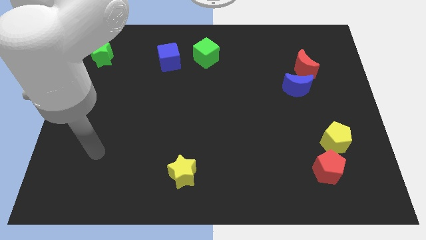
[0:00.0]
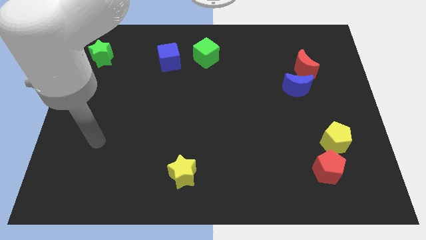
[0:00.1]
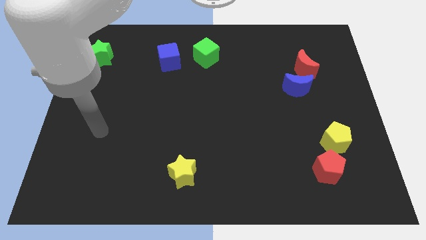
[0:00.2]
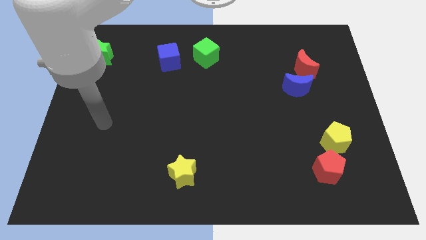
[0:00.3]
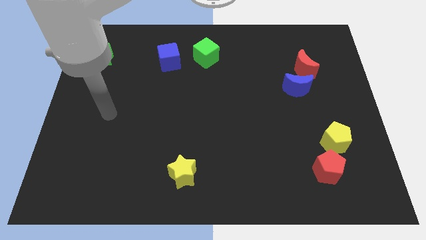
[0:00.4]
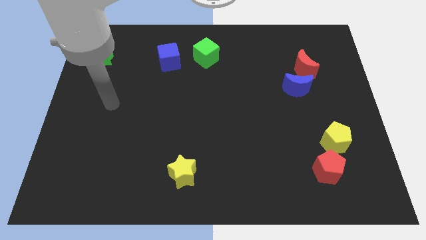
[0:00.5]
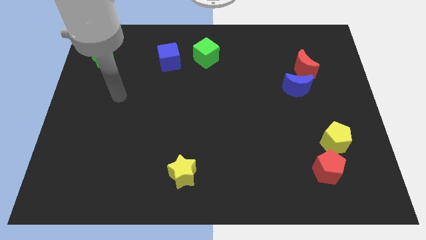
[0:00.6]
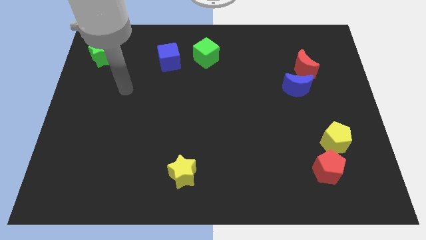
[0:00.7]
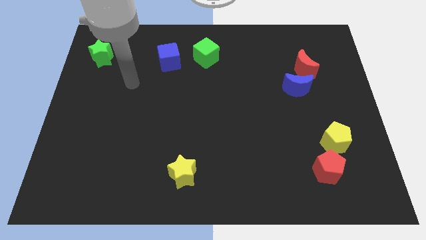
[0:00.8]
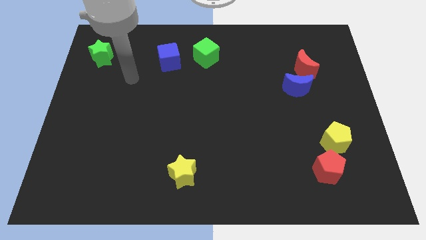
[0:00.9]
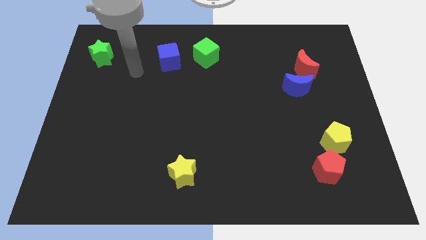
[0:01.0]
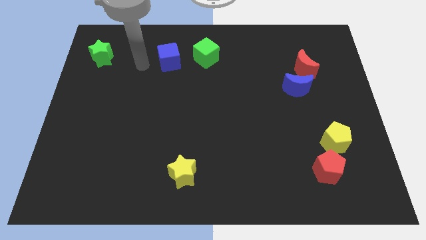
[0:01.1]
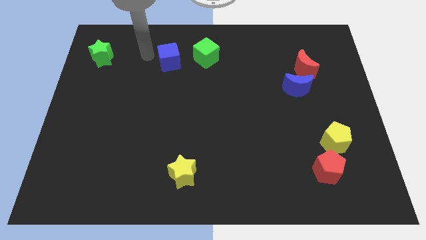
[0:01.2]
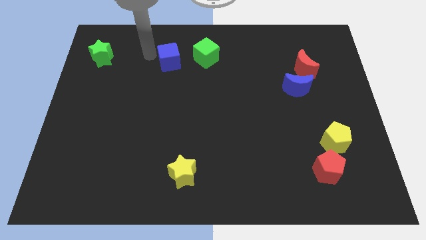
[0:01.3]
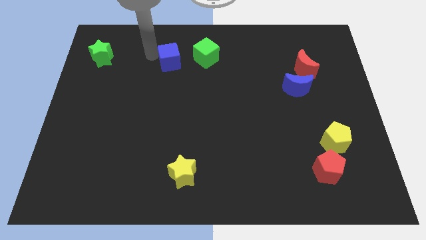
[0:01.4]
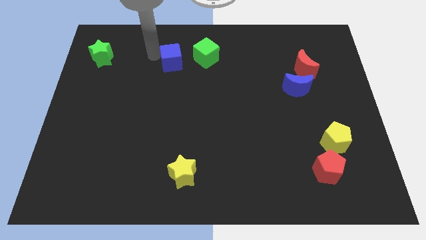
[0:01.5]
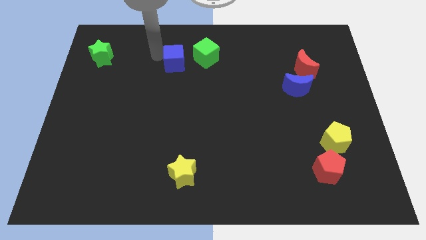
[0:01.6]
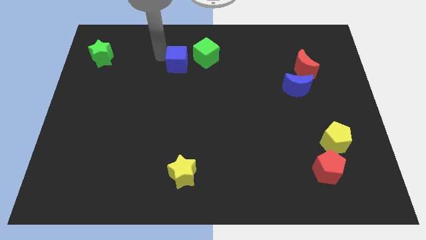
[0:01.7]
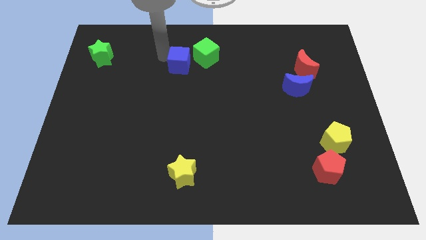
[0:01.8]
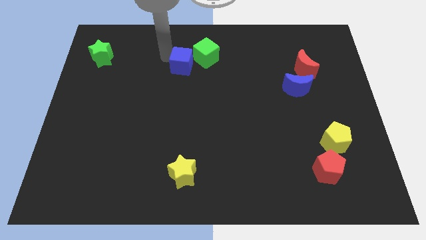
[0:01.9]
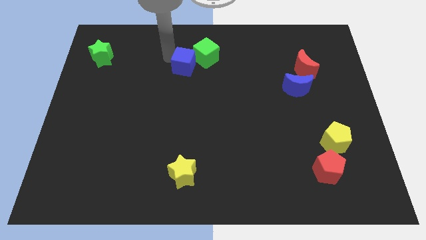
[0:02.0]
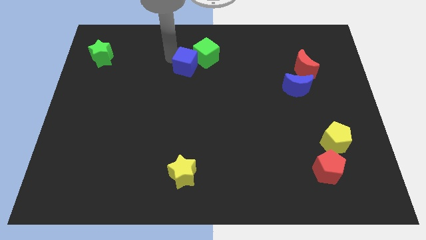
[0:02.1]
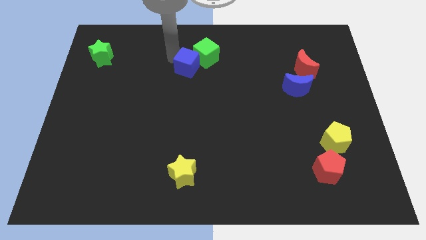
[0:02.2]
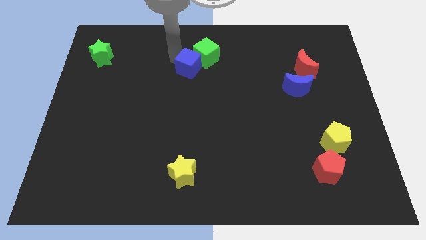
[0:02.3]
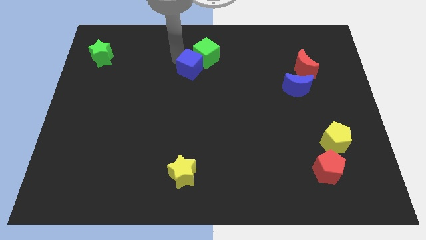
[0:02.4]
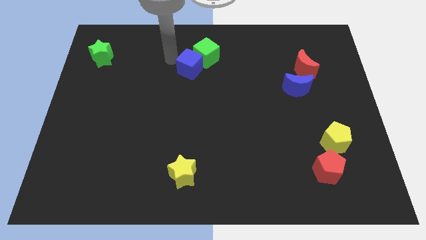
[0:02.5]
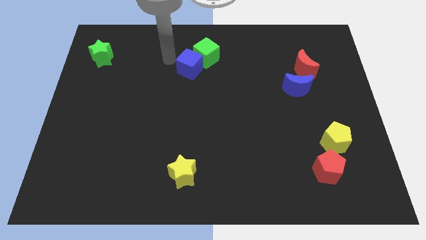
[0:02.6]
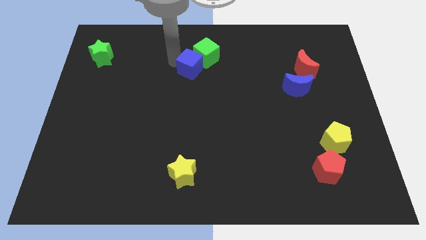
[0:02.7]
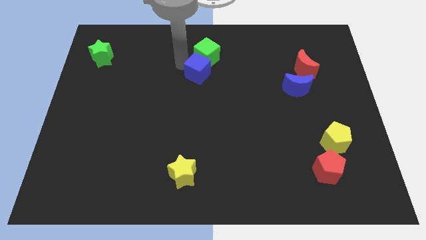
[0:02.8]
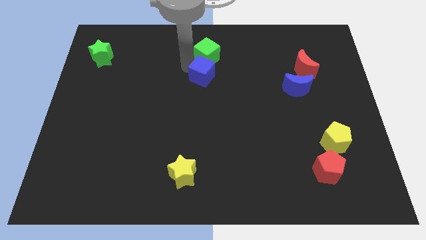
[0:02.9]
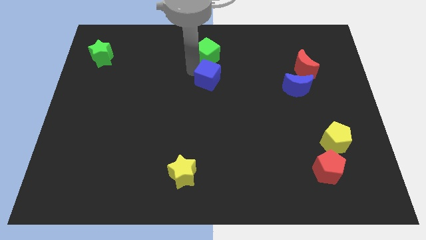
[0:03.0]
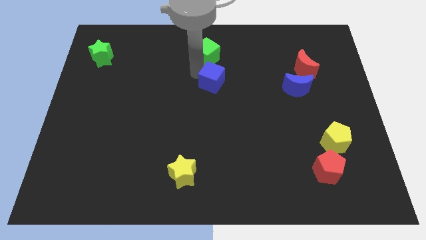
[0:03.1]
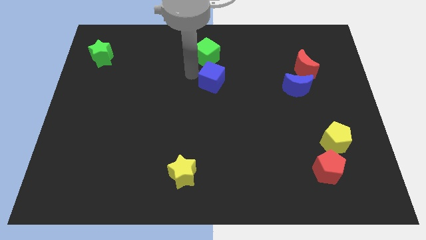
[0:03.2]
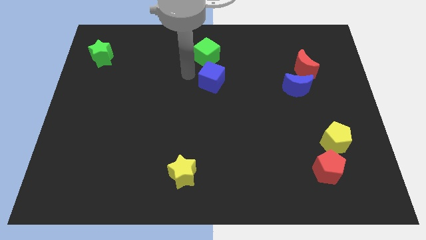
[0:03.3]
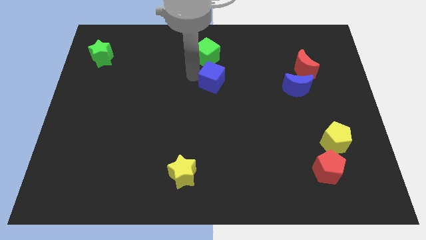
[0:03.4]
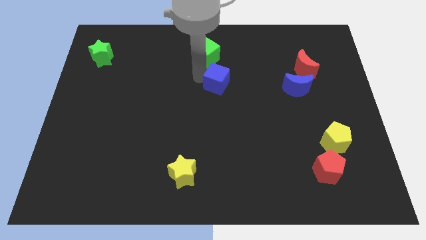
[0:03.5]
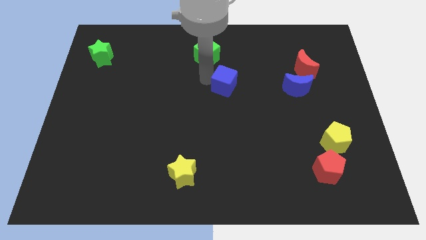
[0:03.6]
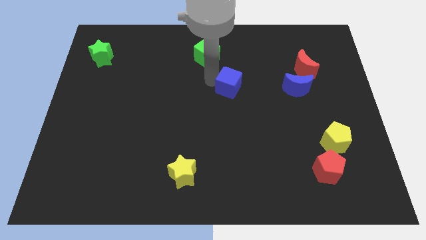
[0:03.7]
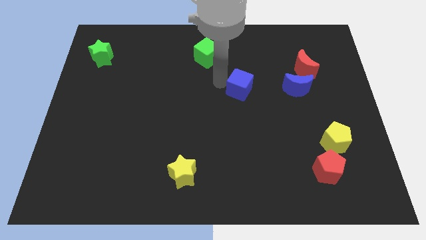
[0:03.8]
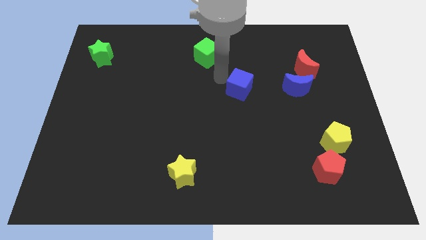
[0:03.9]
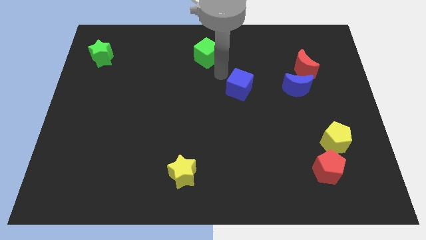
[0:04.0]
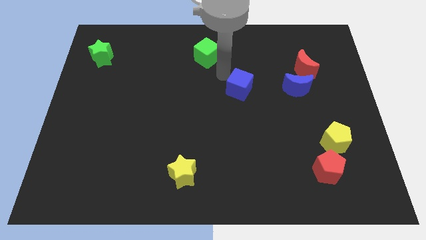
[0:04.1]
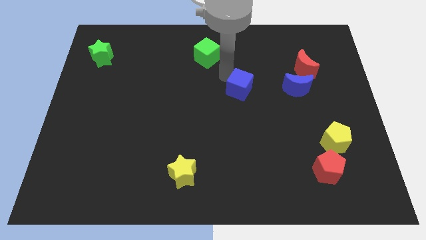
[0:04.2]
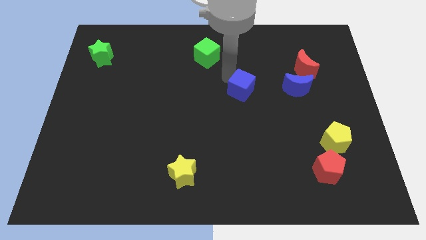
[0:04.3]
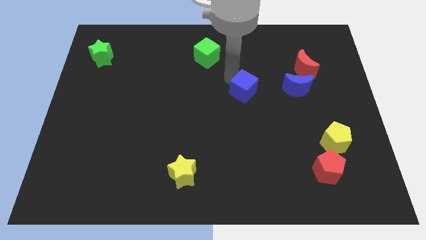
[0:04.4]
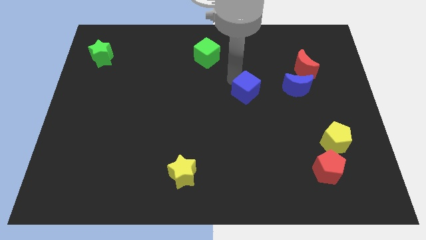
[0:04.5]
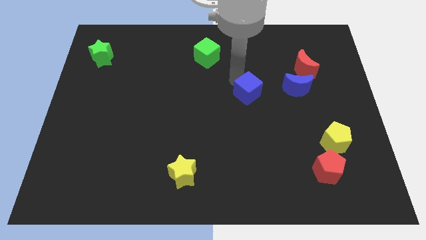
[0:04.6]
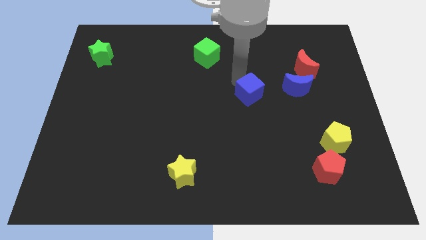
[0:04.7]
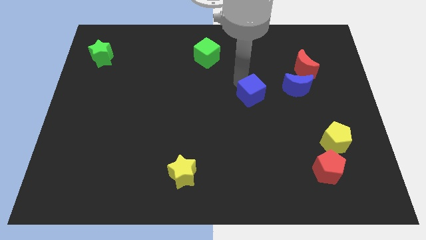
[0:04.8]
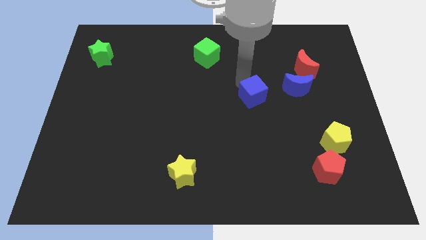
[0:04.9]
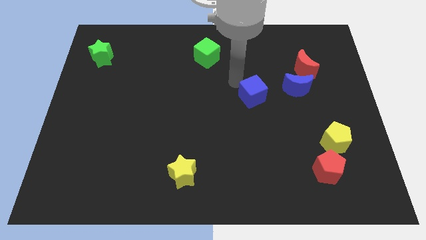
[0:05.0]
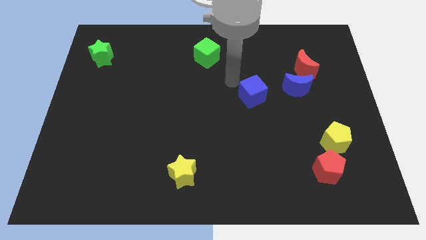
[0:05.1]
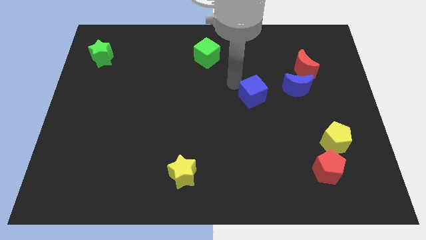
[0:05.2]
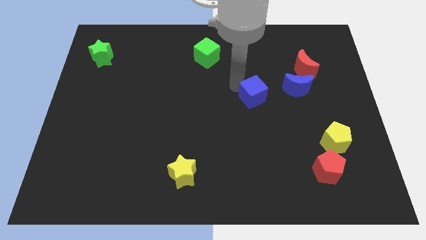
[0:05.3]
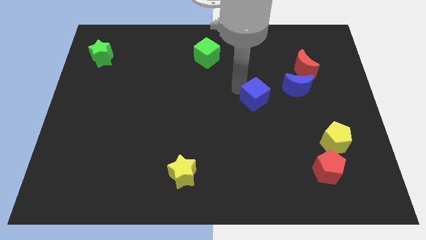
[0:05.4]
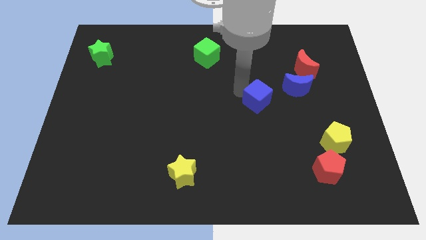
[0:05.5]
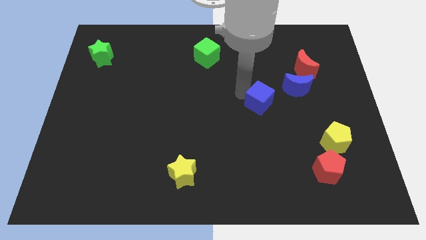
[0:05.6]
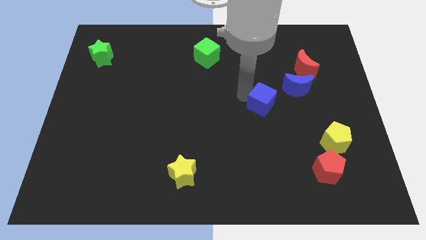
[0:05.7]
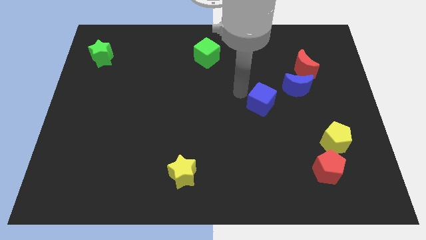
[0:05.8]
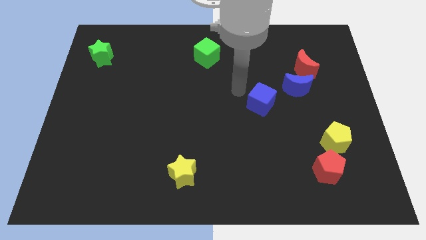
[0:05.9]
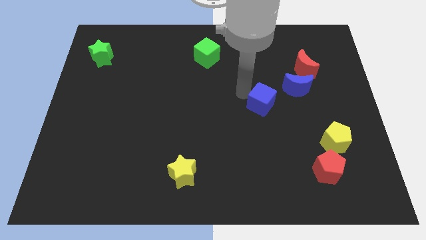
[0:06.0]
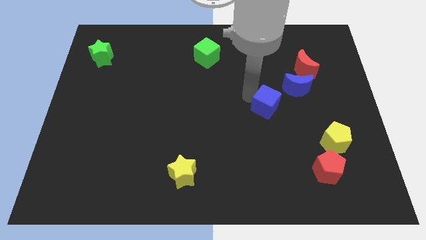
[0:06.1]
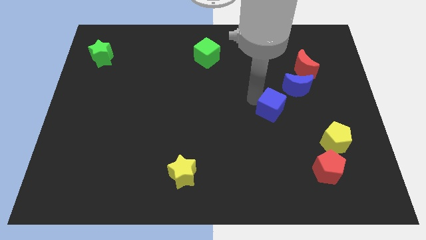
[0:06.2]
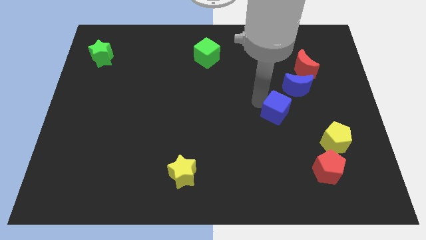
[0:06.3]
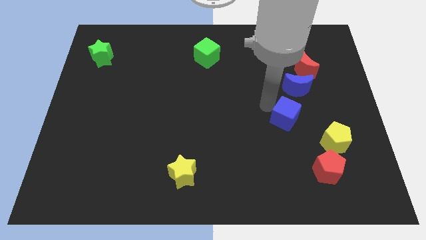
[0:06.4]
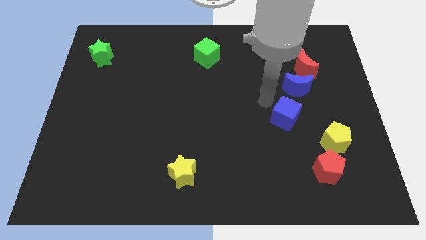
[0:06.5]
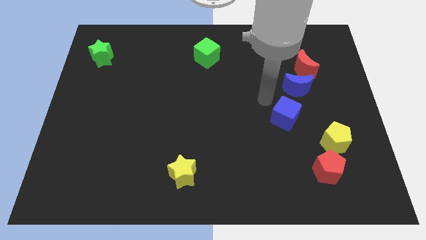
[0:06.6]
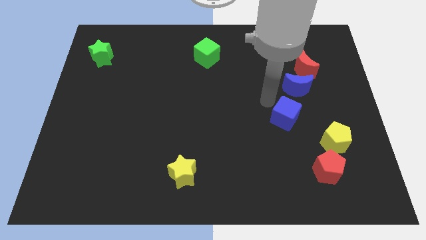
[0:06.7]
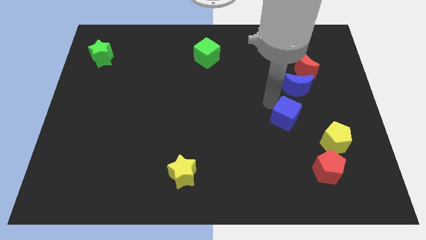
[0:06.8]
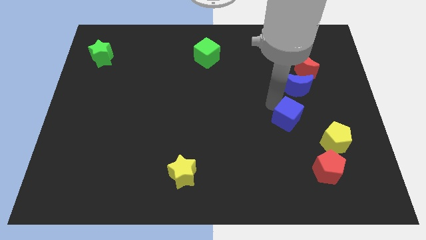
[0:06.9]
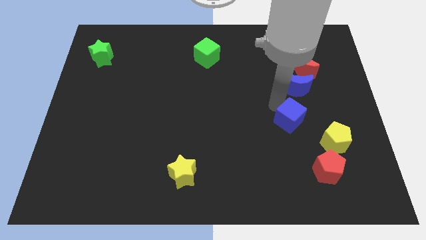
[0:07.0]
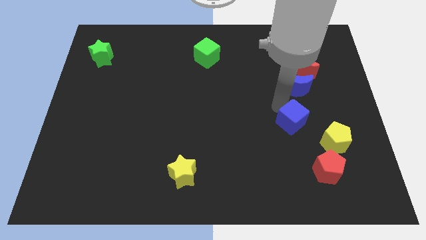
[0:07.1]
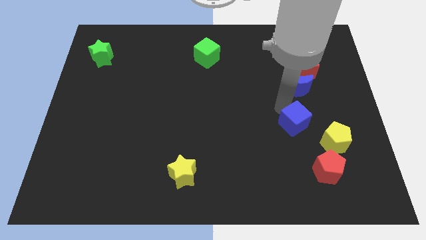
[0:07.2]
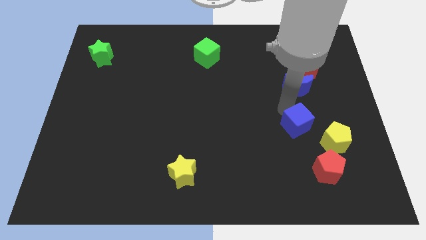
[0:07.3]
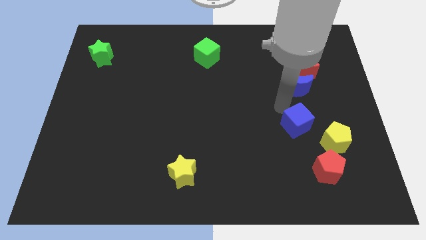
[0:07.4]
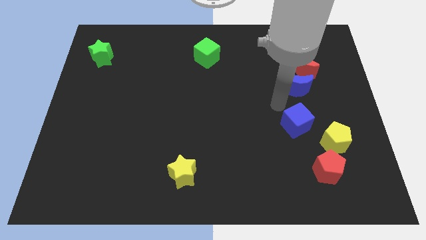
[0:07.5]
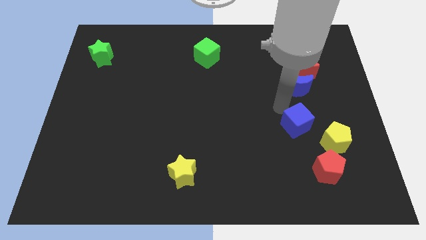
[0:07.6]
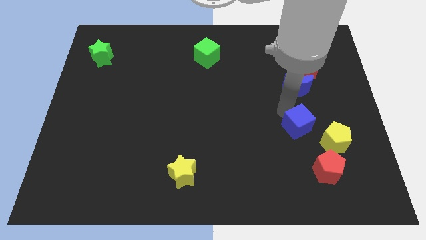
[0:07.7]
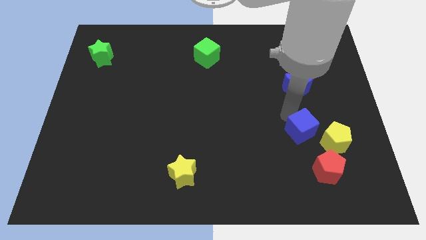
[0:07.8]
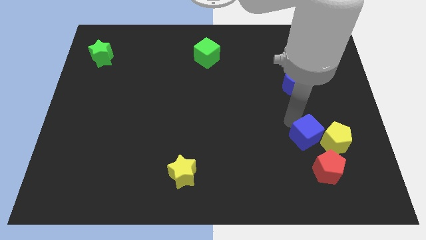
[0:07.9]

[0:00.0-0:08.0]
move the blue cube close to the yellow pentagon
